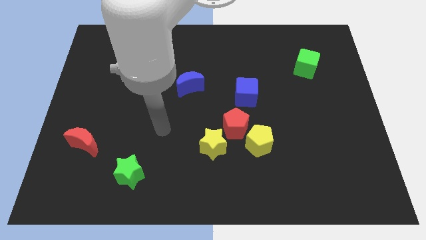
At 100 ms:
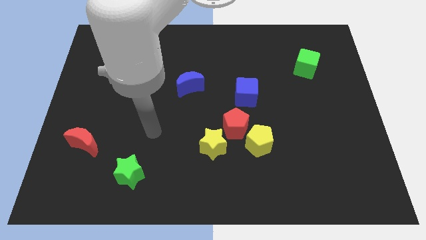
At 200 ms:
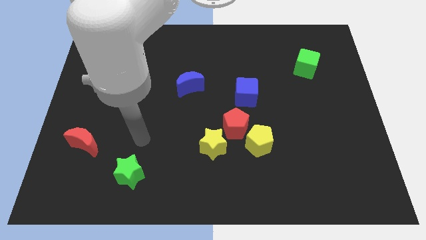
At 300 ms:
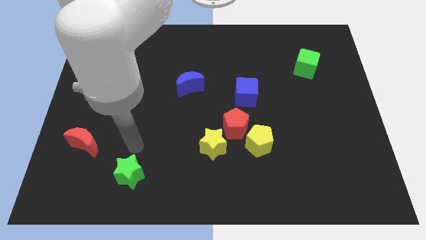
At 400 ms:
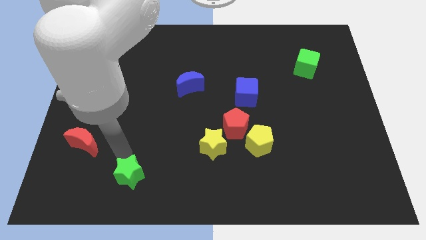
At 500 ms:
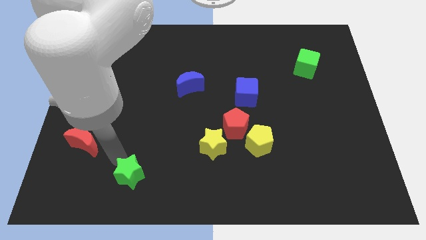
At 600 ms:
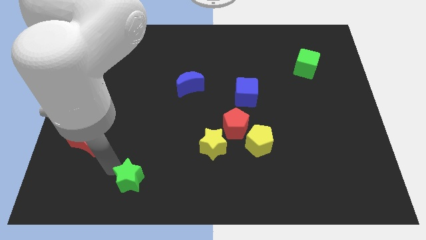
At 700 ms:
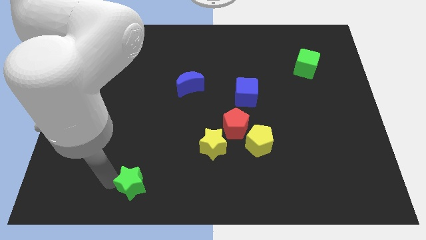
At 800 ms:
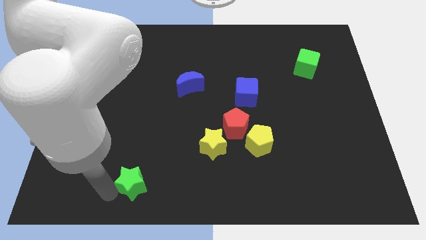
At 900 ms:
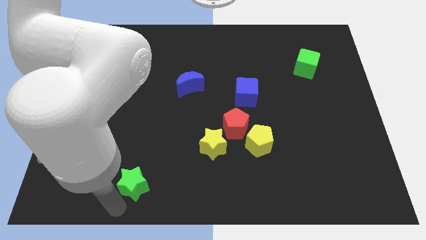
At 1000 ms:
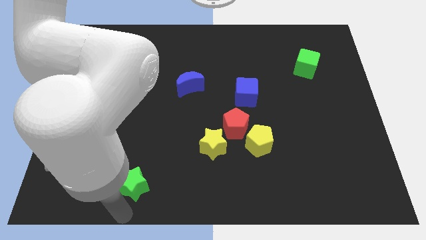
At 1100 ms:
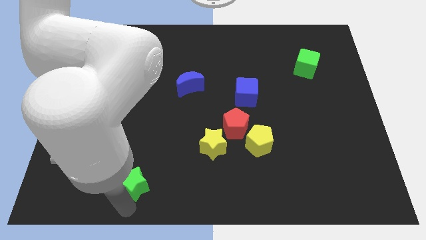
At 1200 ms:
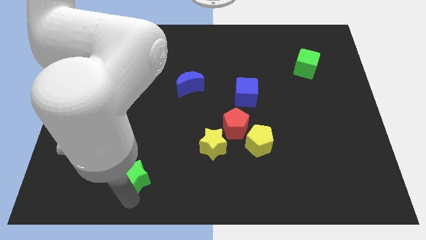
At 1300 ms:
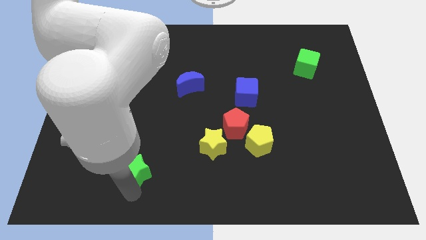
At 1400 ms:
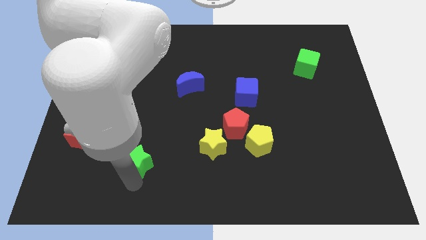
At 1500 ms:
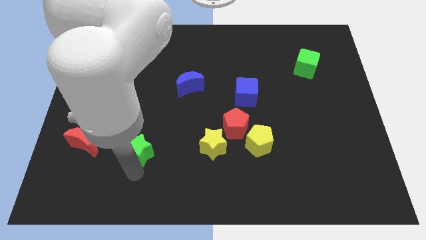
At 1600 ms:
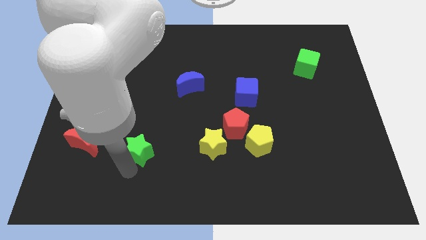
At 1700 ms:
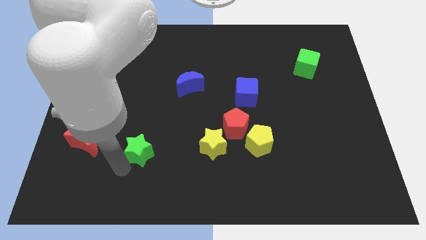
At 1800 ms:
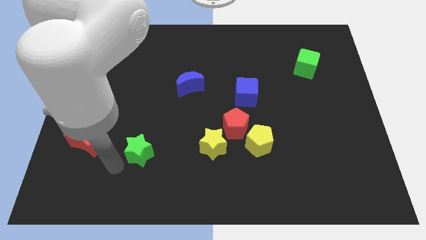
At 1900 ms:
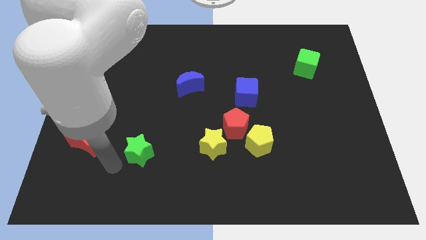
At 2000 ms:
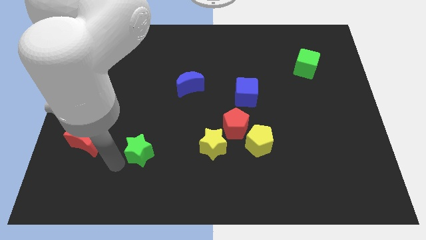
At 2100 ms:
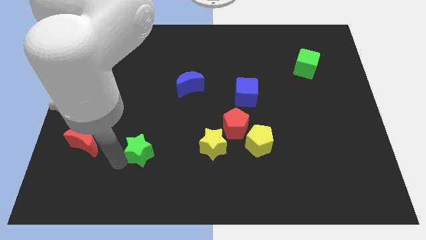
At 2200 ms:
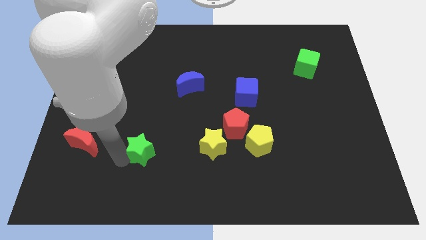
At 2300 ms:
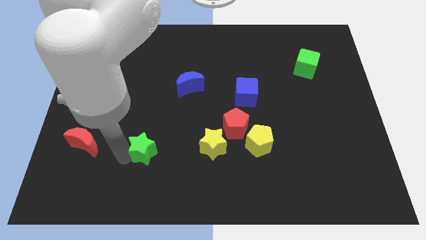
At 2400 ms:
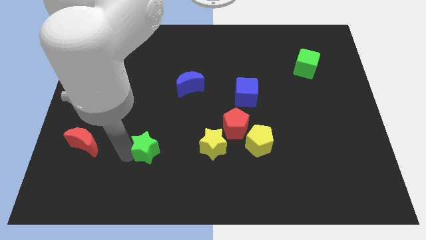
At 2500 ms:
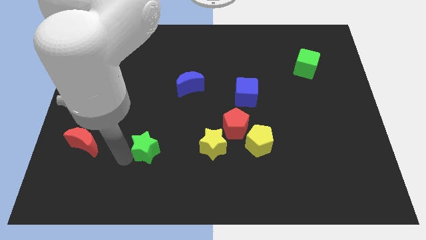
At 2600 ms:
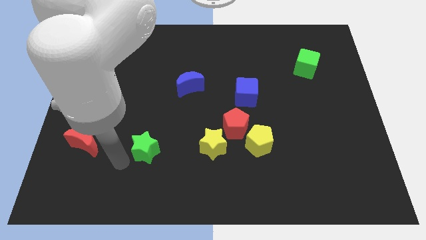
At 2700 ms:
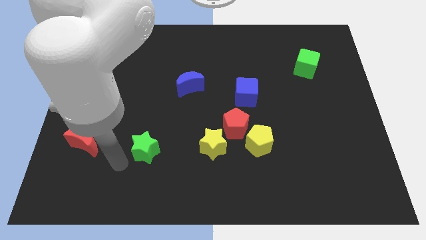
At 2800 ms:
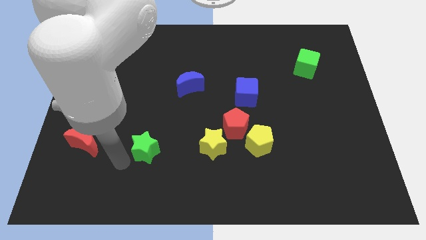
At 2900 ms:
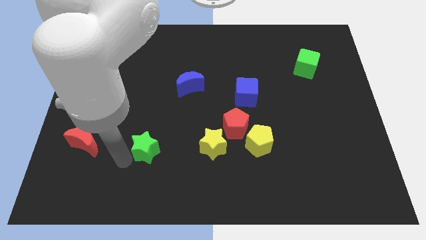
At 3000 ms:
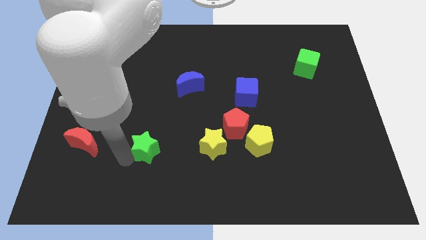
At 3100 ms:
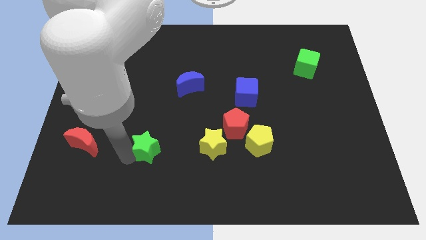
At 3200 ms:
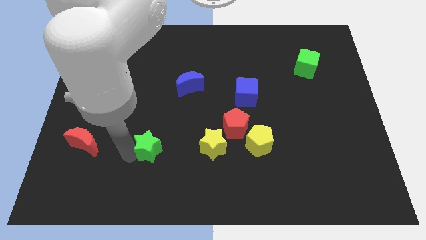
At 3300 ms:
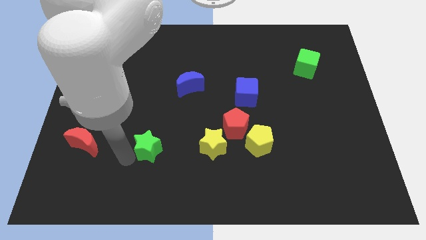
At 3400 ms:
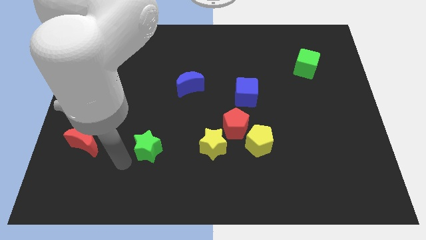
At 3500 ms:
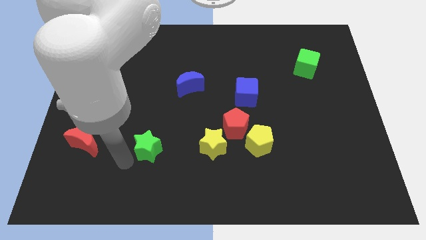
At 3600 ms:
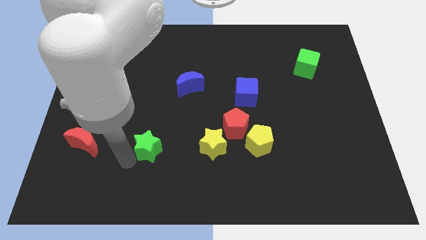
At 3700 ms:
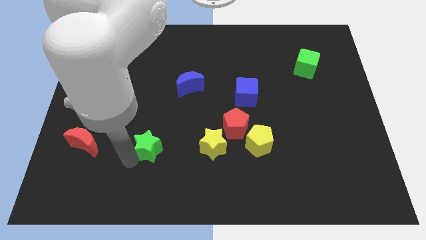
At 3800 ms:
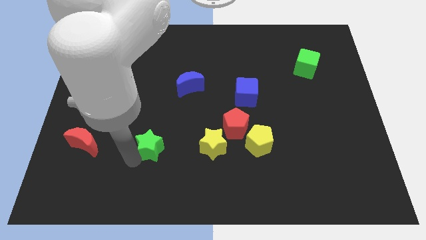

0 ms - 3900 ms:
slide the green star somewhat diagonally upwards and right

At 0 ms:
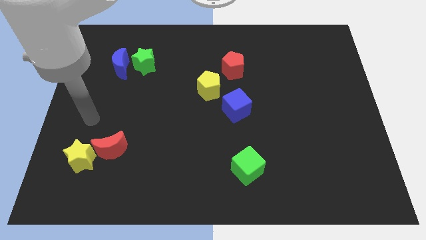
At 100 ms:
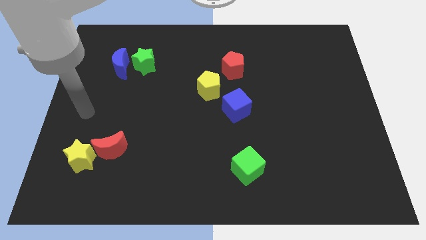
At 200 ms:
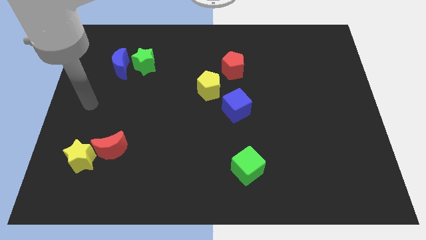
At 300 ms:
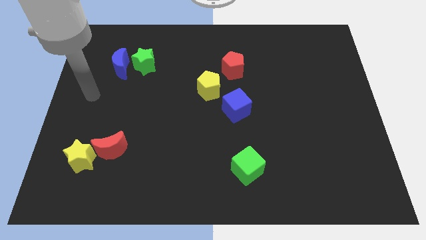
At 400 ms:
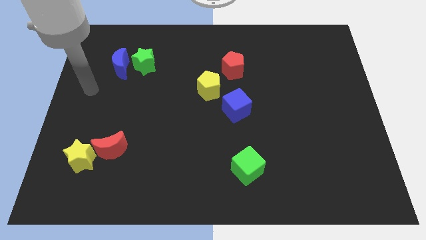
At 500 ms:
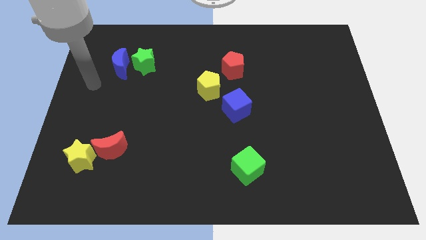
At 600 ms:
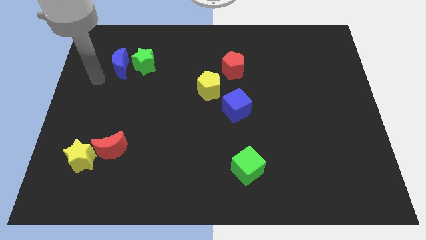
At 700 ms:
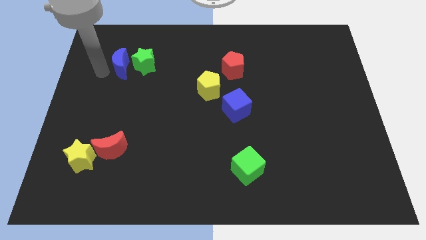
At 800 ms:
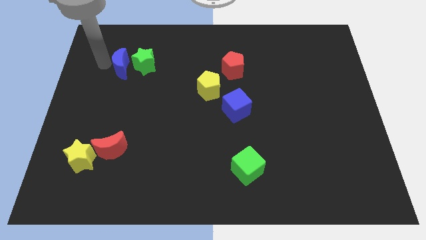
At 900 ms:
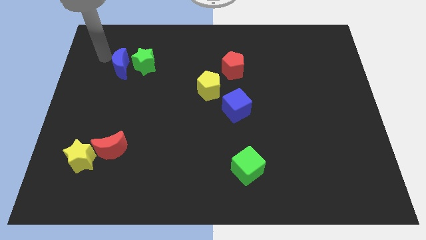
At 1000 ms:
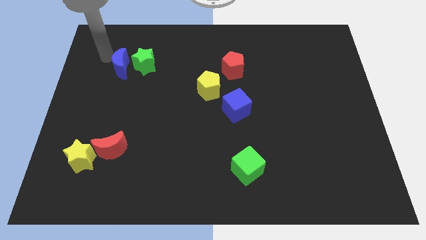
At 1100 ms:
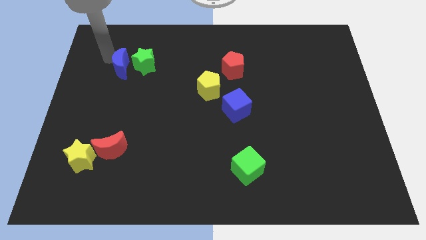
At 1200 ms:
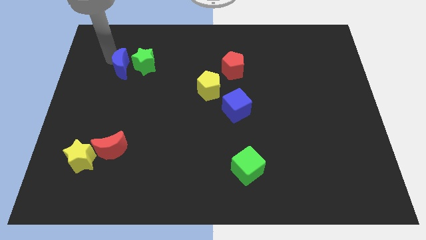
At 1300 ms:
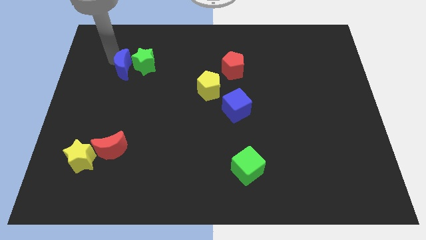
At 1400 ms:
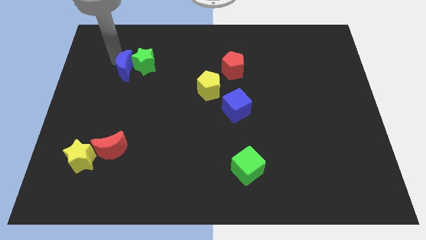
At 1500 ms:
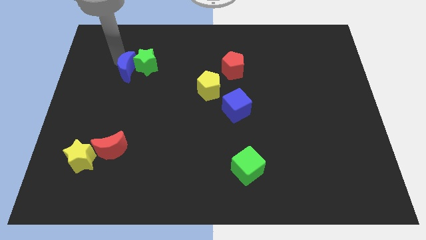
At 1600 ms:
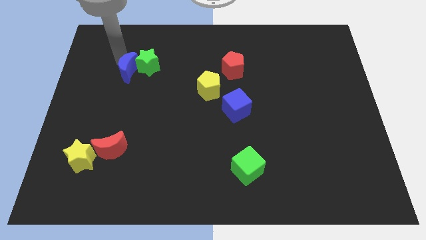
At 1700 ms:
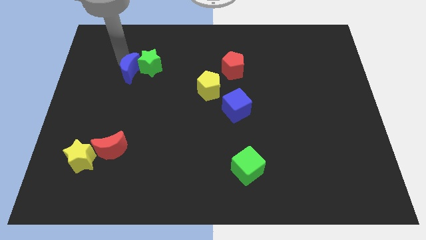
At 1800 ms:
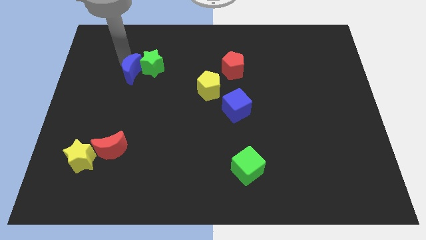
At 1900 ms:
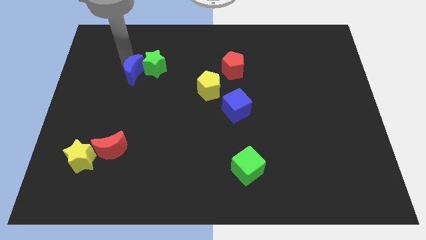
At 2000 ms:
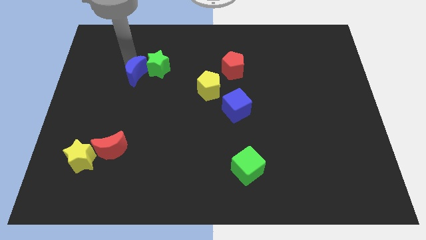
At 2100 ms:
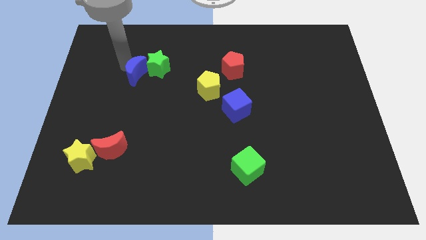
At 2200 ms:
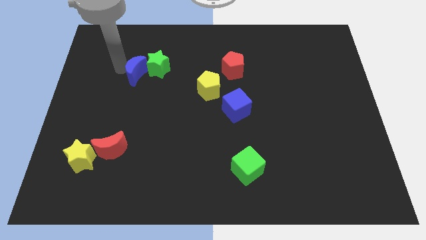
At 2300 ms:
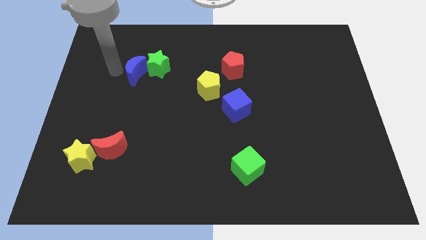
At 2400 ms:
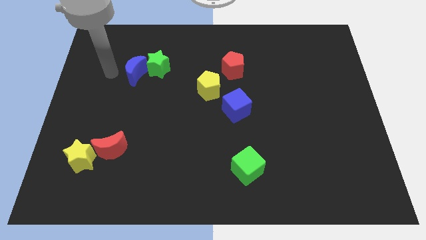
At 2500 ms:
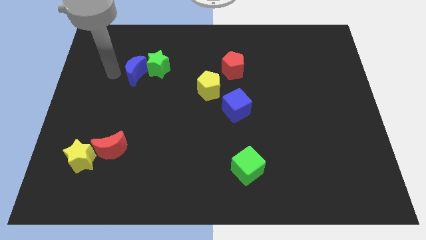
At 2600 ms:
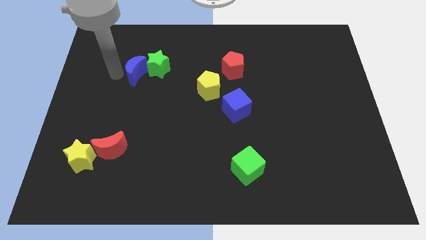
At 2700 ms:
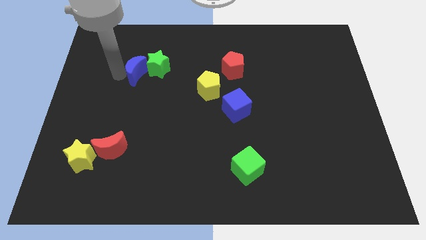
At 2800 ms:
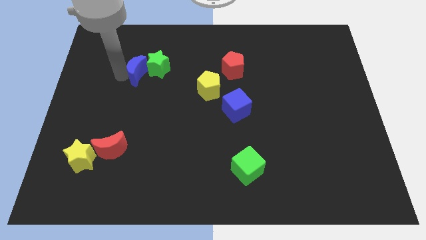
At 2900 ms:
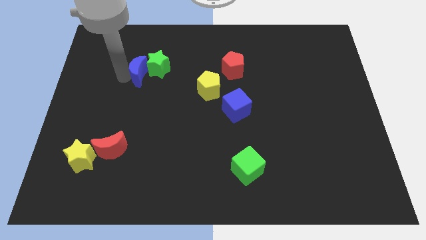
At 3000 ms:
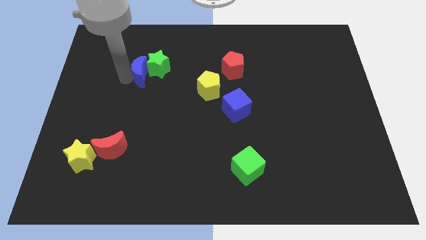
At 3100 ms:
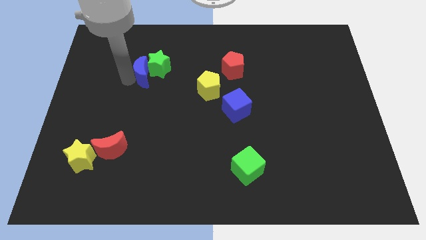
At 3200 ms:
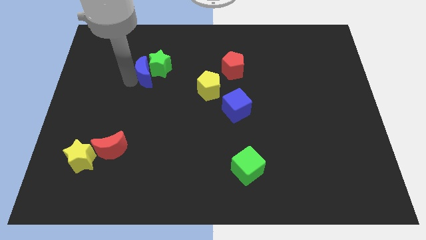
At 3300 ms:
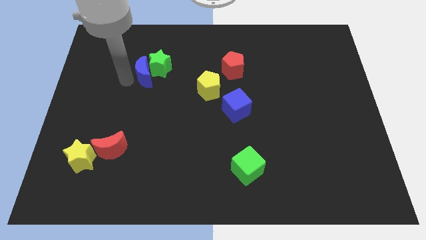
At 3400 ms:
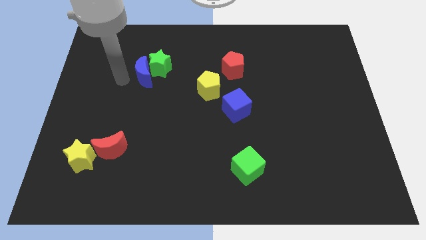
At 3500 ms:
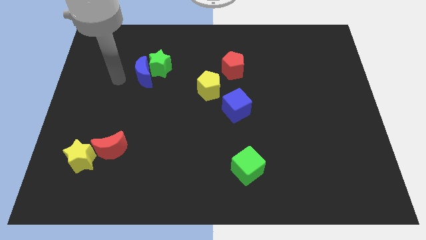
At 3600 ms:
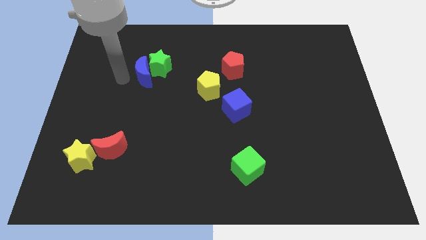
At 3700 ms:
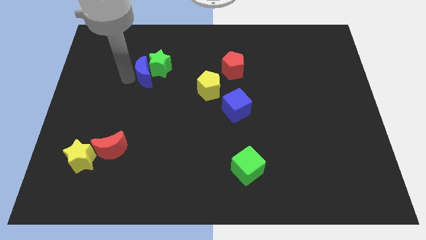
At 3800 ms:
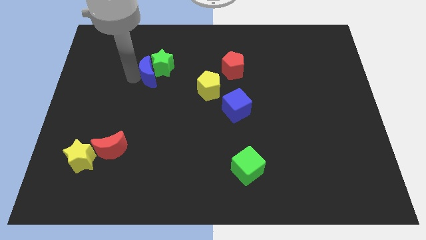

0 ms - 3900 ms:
slide the blue moon to the right a bit

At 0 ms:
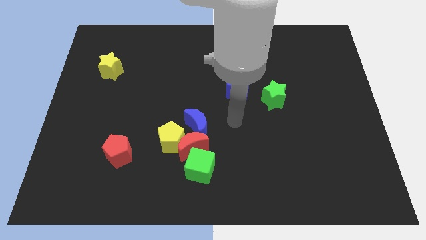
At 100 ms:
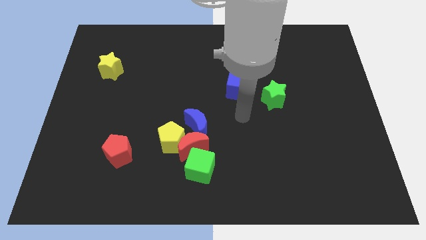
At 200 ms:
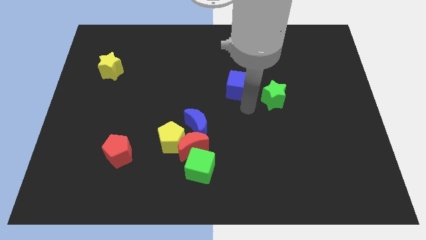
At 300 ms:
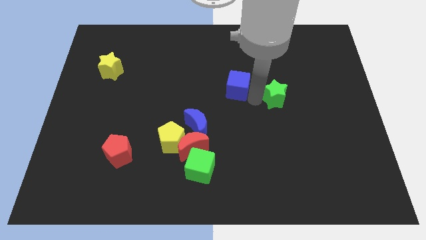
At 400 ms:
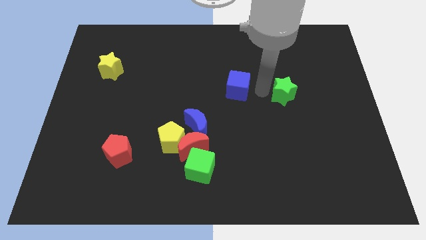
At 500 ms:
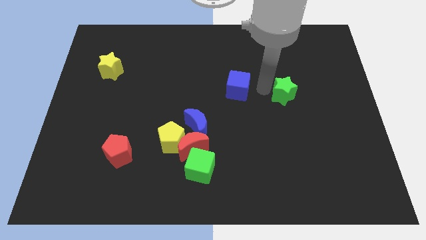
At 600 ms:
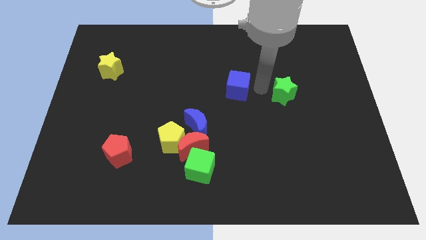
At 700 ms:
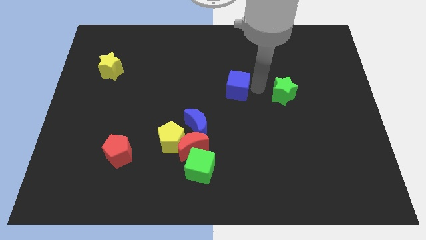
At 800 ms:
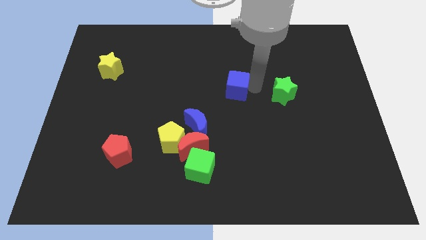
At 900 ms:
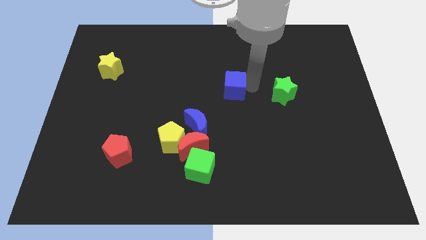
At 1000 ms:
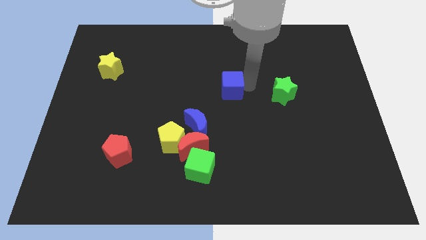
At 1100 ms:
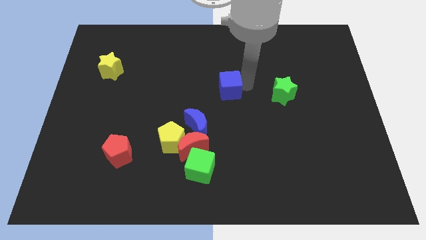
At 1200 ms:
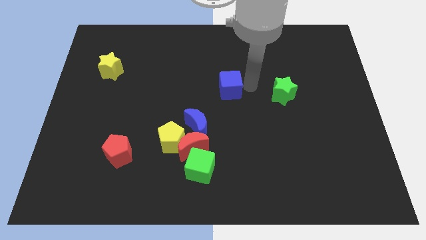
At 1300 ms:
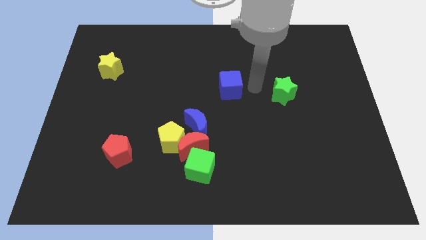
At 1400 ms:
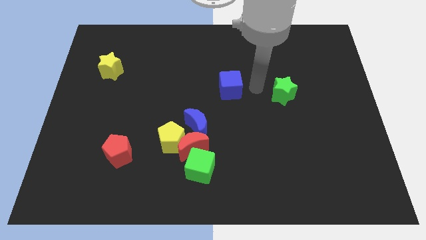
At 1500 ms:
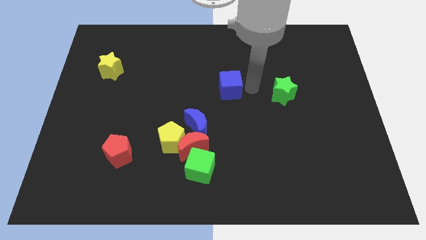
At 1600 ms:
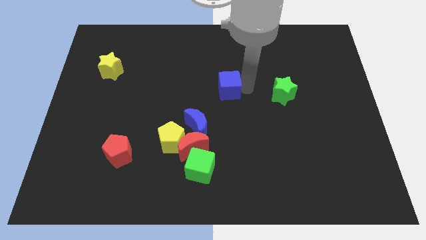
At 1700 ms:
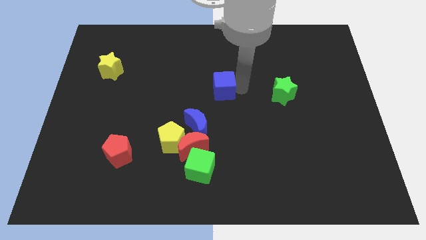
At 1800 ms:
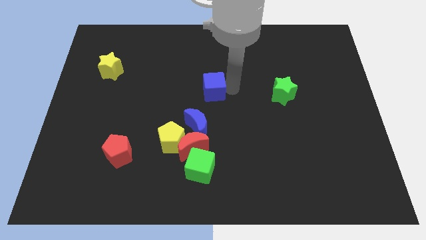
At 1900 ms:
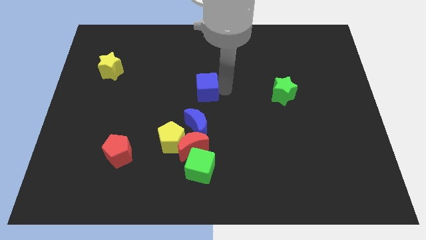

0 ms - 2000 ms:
slightly move the blue cube to the left
